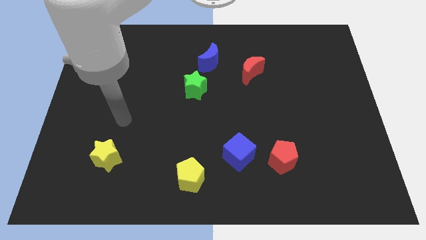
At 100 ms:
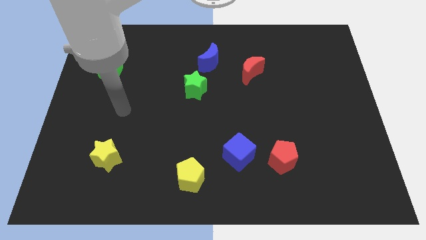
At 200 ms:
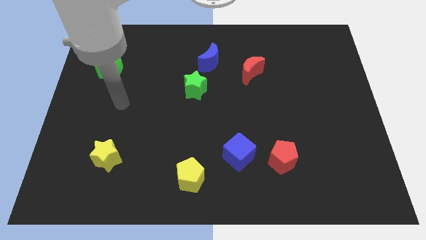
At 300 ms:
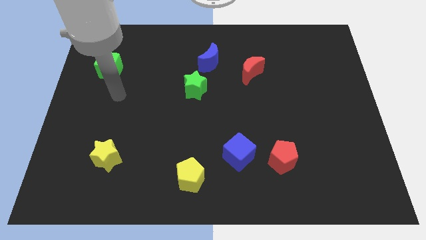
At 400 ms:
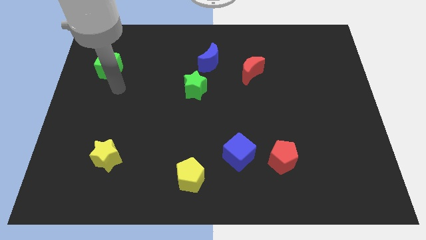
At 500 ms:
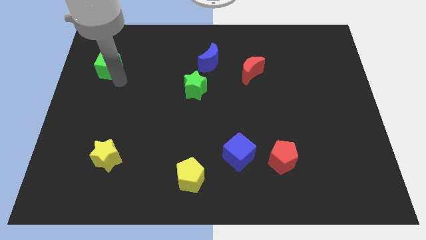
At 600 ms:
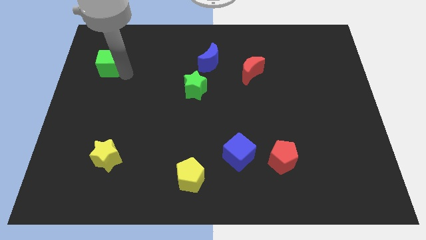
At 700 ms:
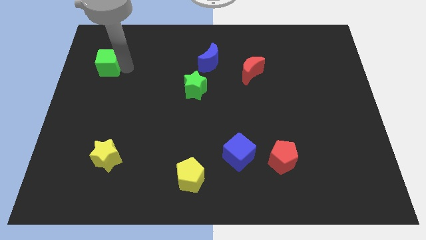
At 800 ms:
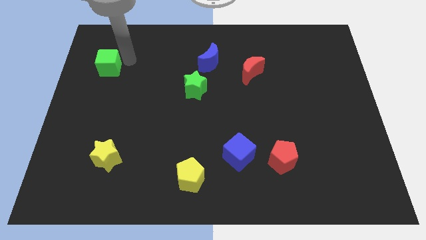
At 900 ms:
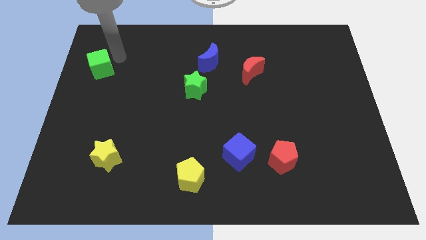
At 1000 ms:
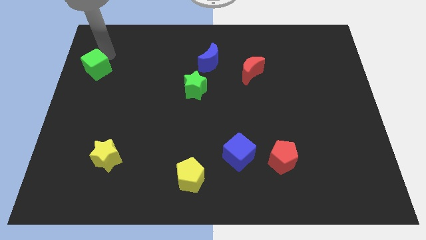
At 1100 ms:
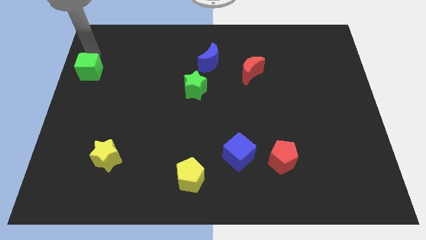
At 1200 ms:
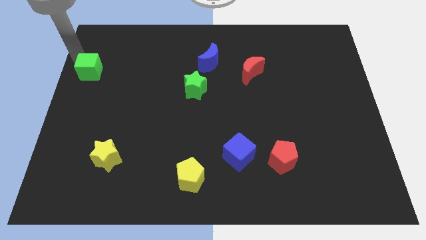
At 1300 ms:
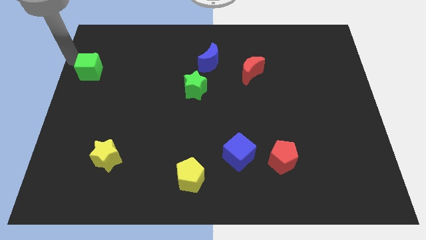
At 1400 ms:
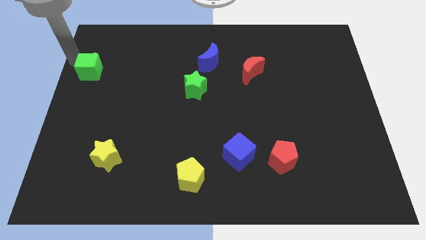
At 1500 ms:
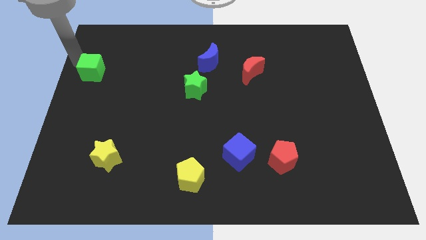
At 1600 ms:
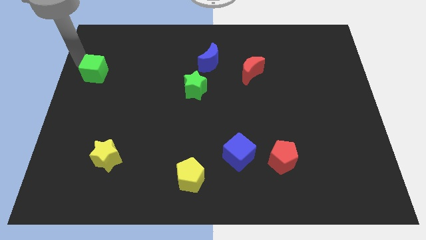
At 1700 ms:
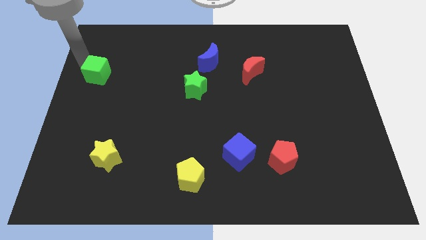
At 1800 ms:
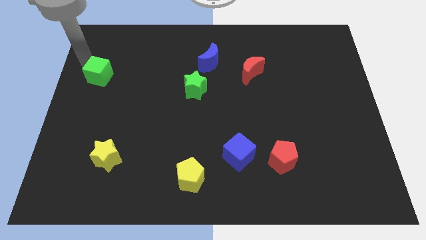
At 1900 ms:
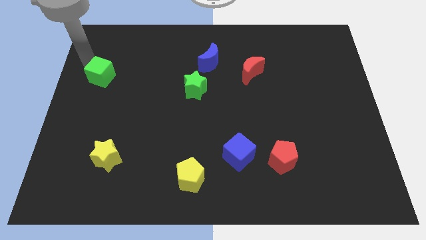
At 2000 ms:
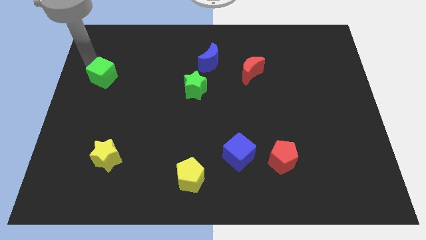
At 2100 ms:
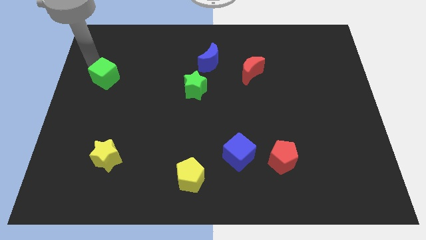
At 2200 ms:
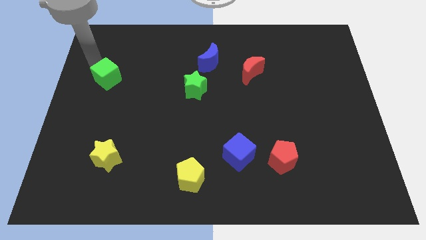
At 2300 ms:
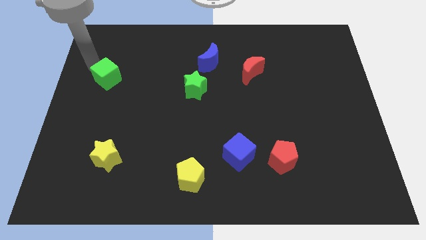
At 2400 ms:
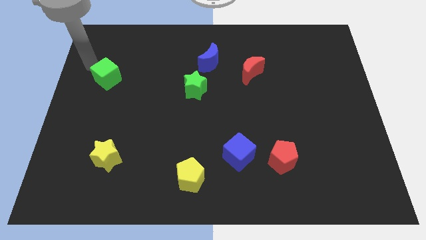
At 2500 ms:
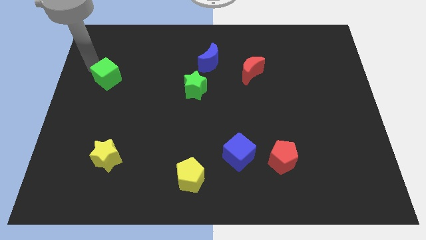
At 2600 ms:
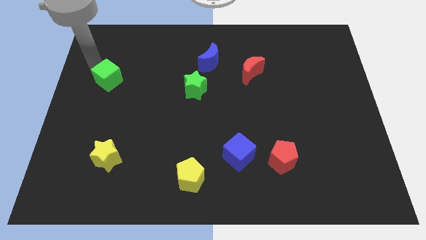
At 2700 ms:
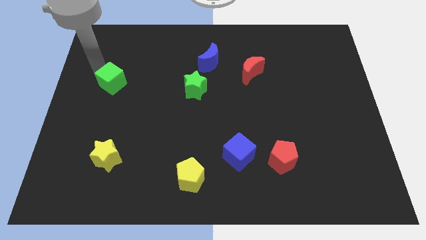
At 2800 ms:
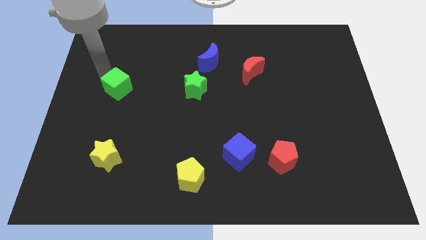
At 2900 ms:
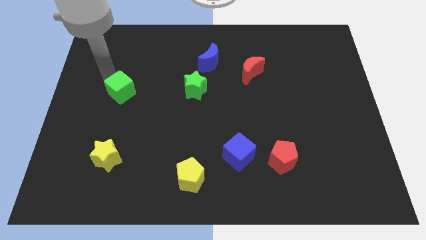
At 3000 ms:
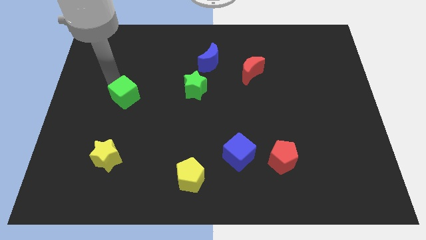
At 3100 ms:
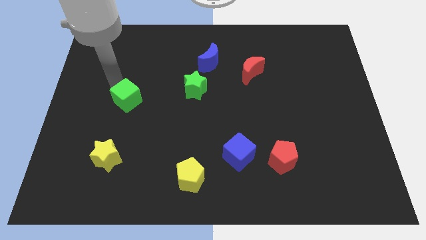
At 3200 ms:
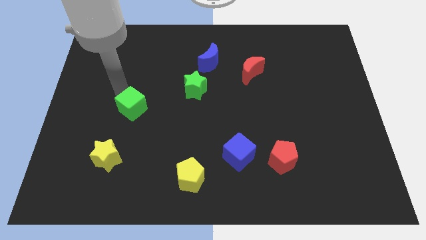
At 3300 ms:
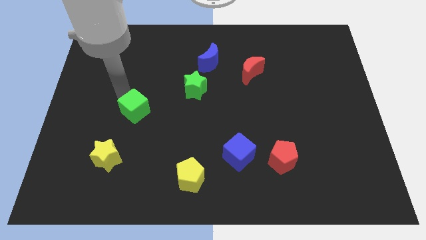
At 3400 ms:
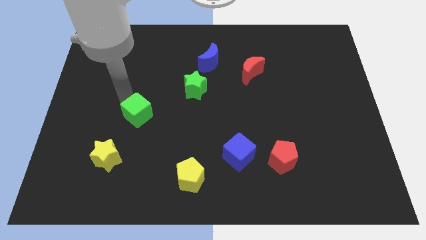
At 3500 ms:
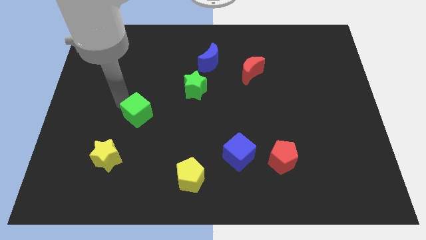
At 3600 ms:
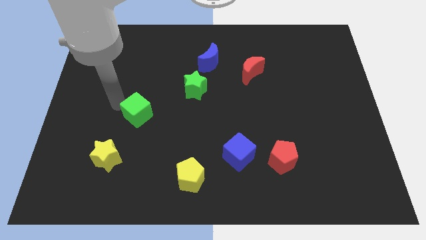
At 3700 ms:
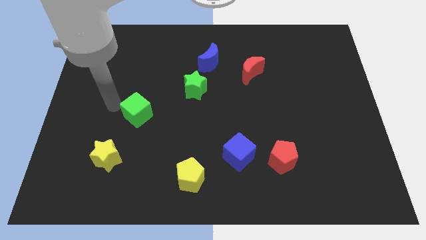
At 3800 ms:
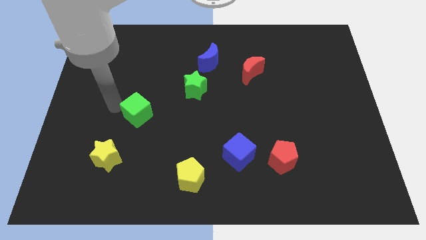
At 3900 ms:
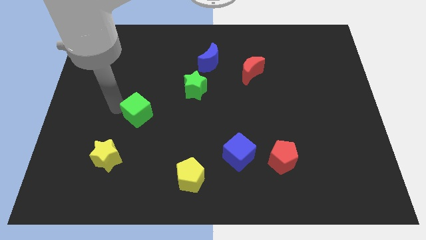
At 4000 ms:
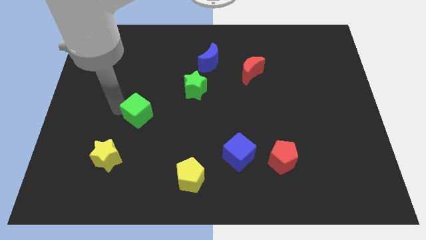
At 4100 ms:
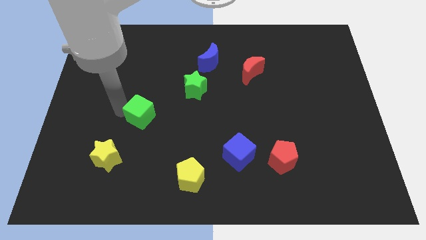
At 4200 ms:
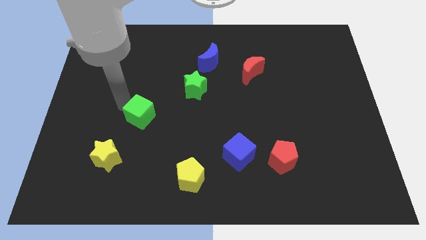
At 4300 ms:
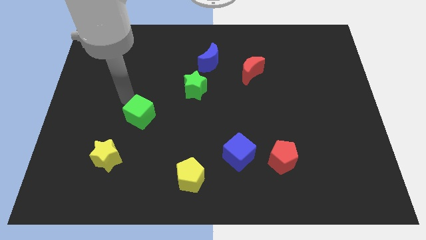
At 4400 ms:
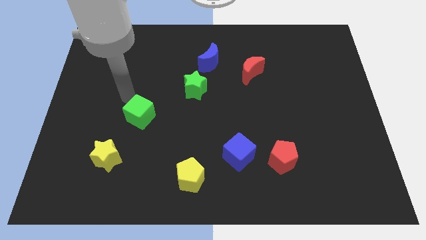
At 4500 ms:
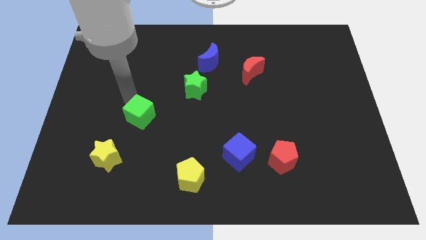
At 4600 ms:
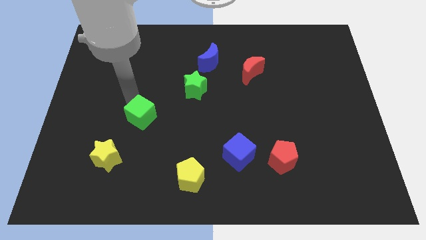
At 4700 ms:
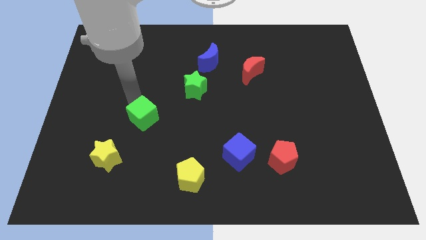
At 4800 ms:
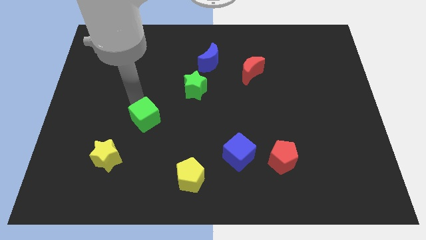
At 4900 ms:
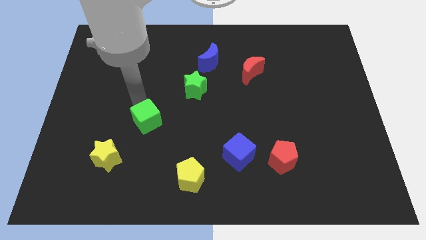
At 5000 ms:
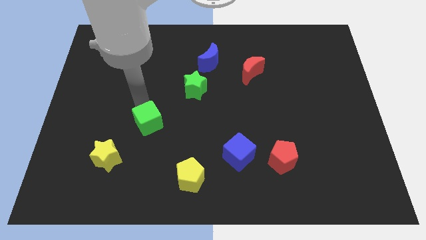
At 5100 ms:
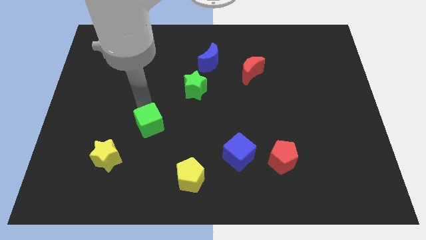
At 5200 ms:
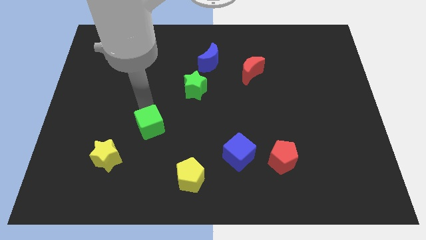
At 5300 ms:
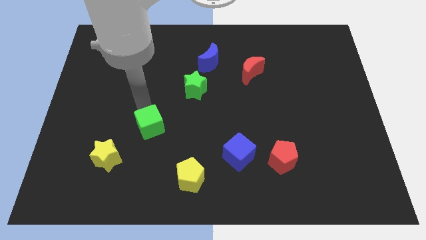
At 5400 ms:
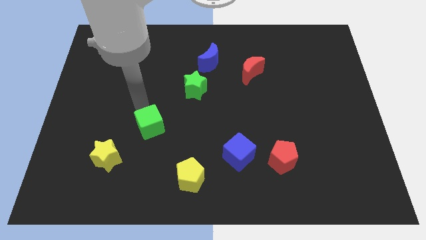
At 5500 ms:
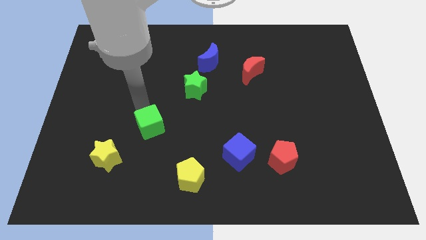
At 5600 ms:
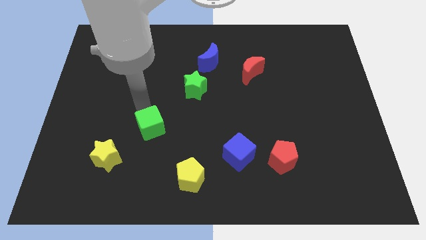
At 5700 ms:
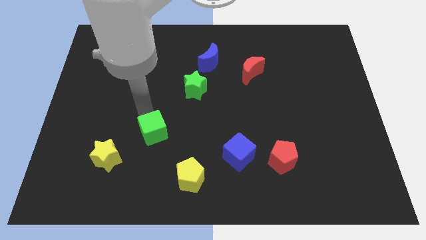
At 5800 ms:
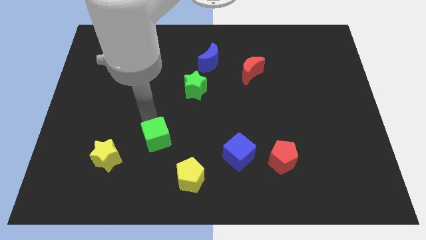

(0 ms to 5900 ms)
push the green cube to the right of the yellow star

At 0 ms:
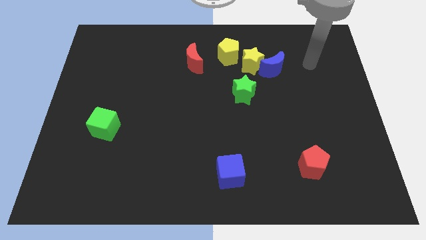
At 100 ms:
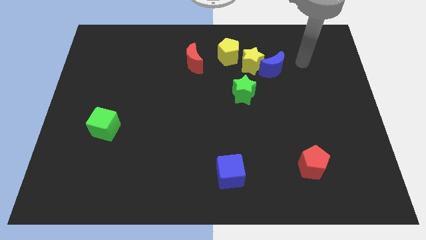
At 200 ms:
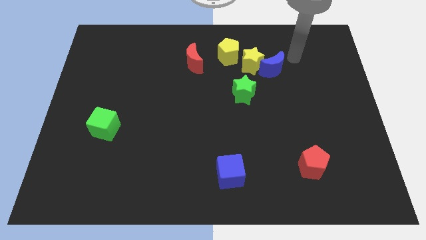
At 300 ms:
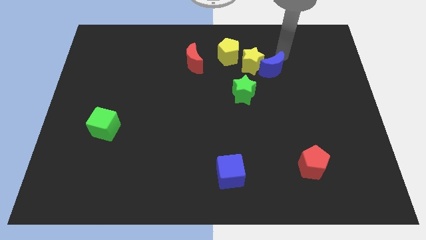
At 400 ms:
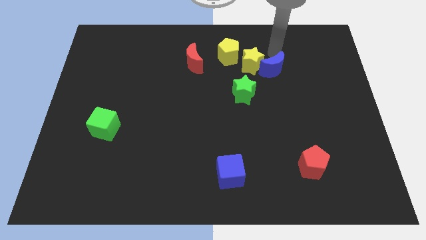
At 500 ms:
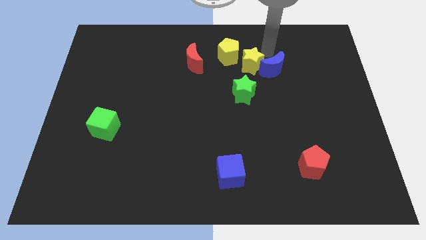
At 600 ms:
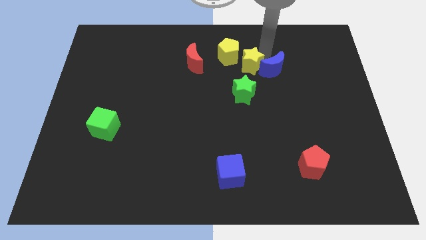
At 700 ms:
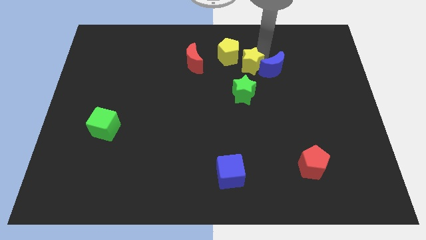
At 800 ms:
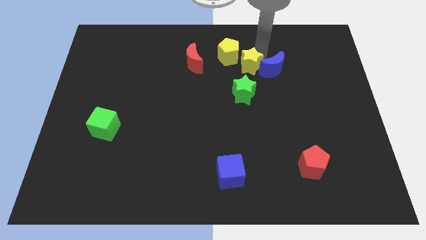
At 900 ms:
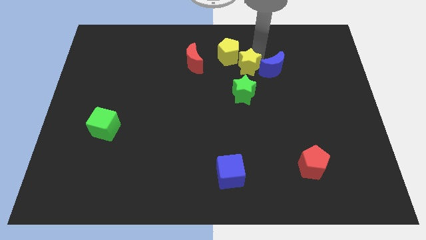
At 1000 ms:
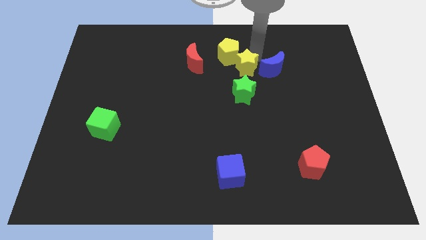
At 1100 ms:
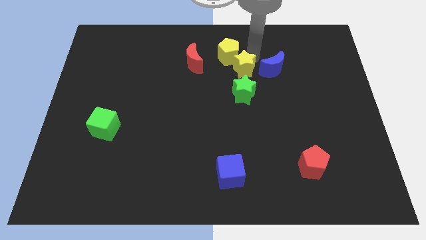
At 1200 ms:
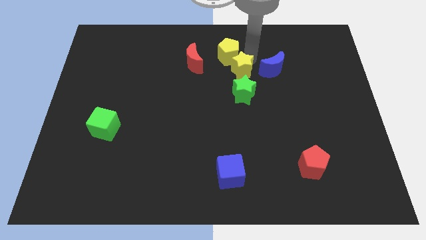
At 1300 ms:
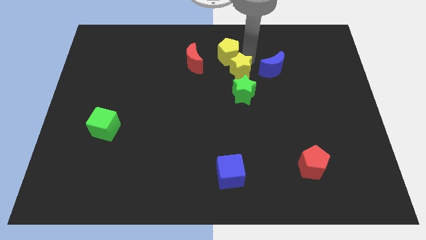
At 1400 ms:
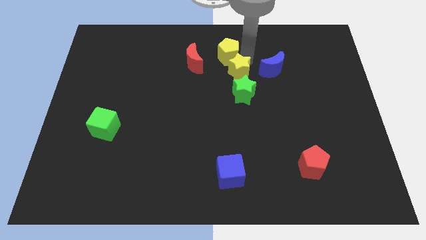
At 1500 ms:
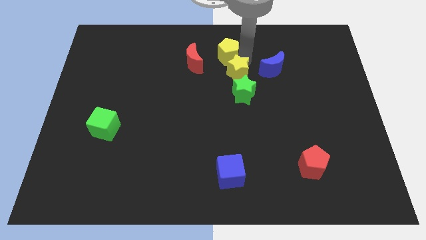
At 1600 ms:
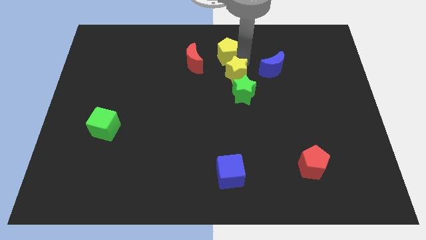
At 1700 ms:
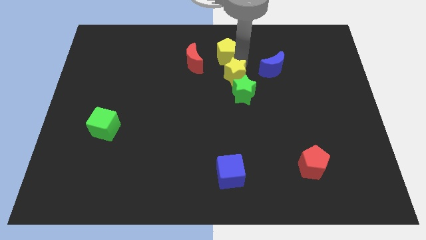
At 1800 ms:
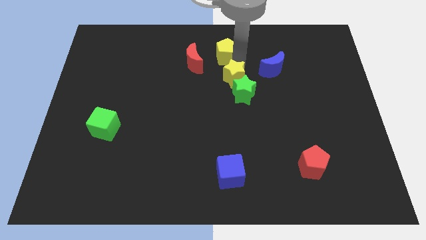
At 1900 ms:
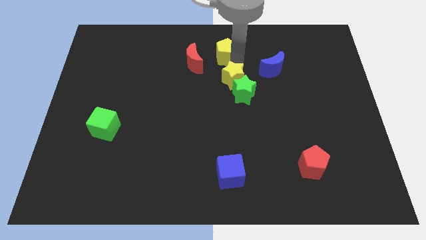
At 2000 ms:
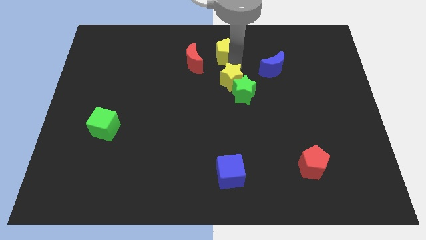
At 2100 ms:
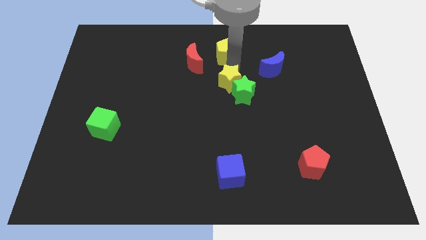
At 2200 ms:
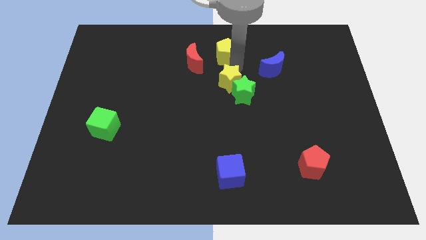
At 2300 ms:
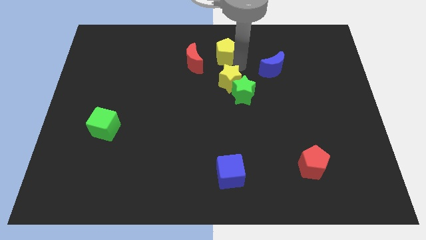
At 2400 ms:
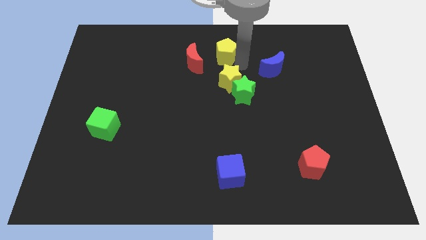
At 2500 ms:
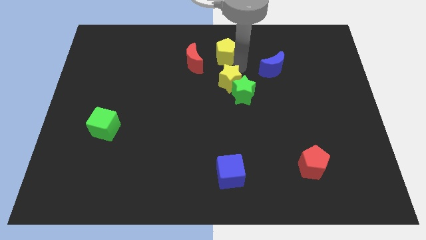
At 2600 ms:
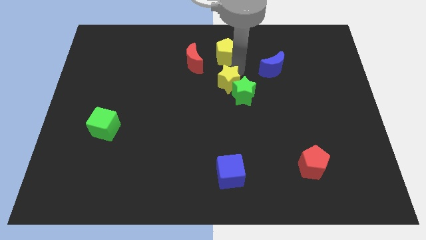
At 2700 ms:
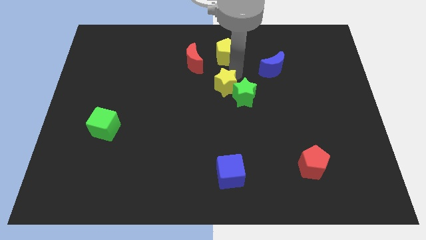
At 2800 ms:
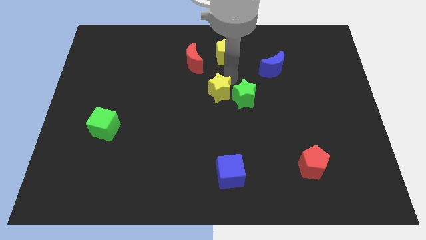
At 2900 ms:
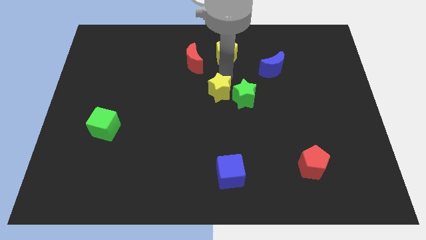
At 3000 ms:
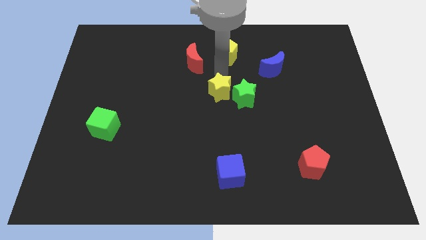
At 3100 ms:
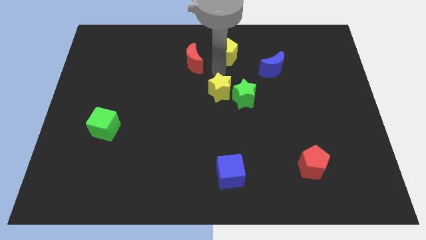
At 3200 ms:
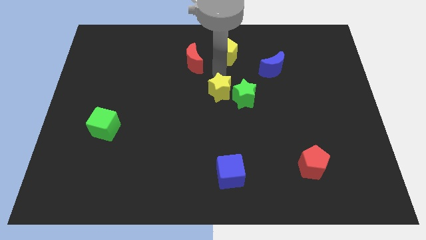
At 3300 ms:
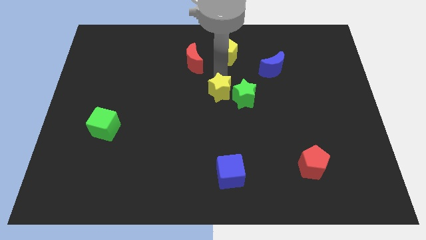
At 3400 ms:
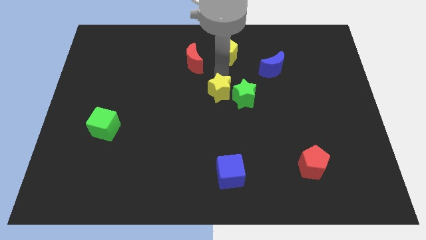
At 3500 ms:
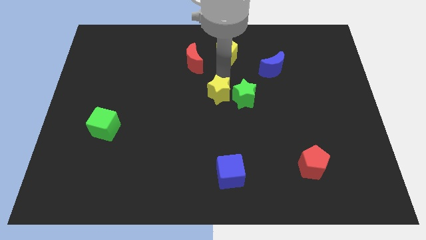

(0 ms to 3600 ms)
move the yellow star to the bottom left of the green star
